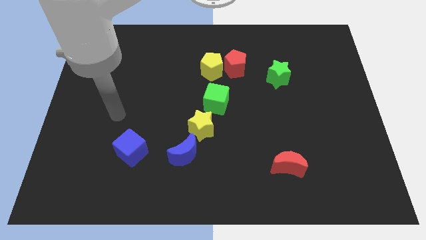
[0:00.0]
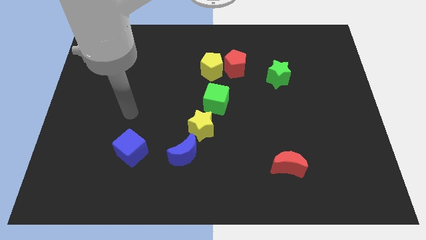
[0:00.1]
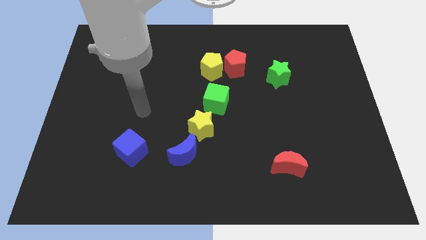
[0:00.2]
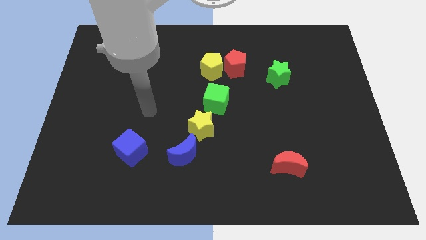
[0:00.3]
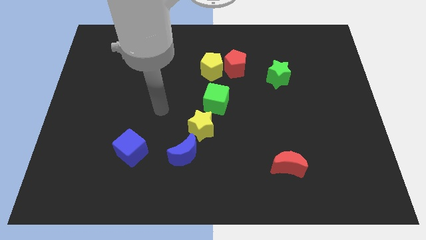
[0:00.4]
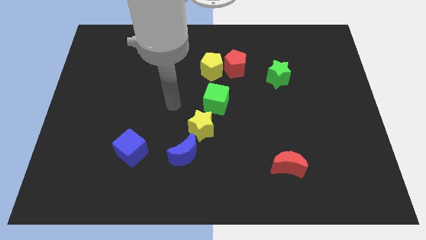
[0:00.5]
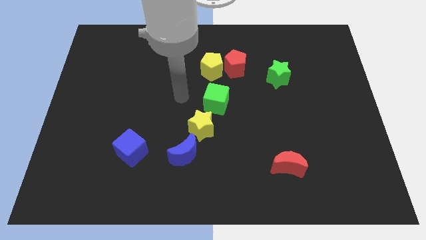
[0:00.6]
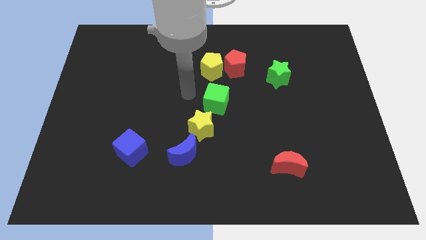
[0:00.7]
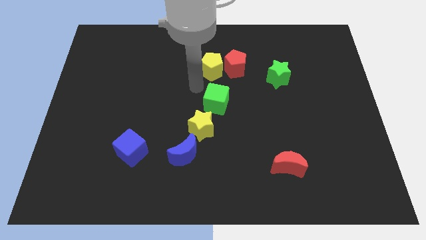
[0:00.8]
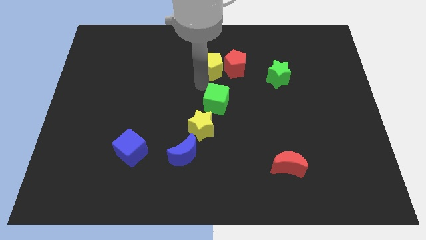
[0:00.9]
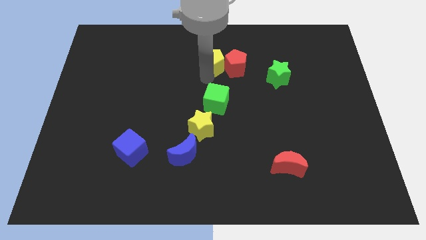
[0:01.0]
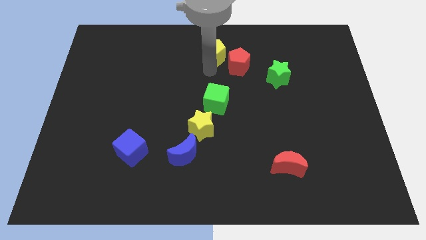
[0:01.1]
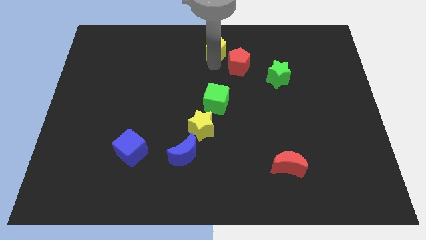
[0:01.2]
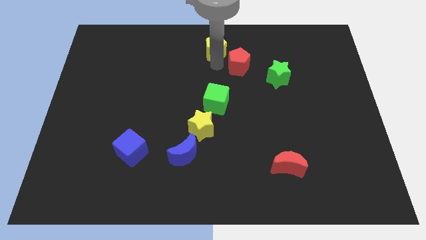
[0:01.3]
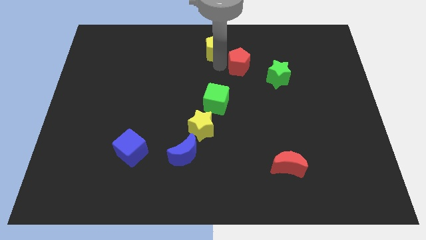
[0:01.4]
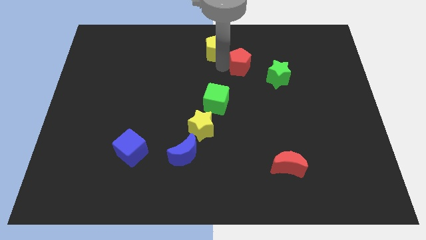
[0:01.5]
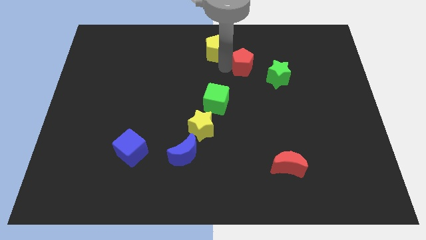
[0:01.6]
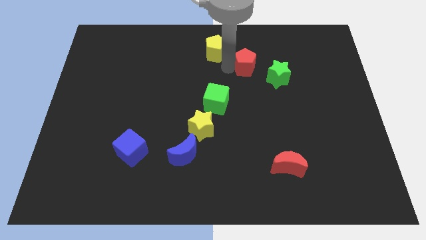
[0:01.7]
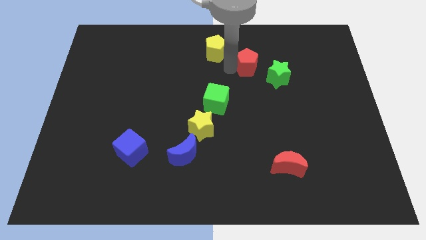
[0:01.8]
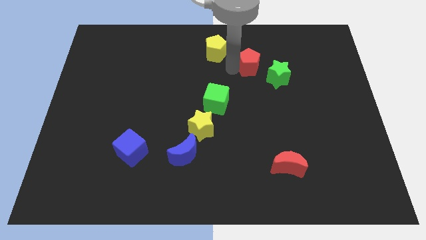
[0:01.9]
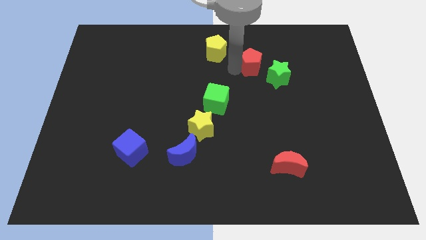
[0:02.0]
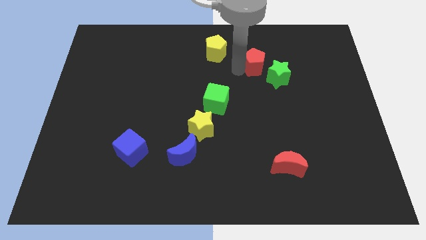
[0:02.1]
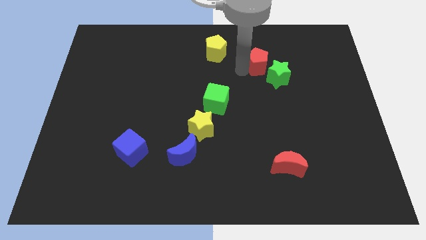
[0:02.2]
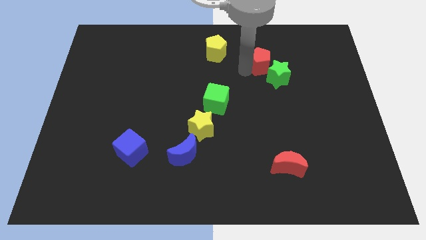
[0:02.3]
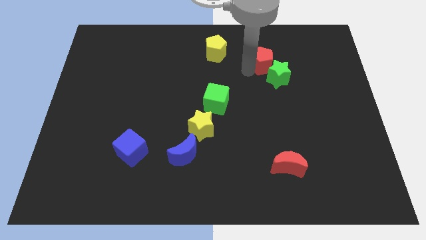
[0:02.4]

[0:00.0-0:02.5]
push the red pentagon a bit right

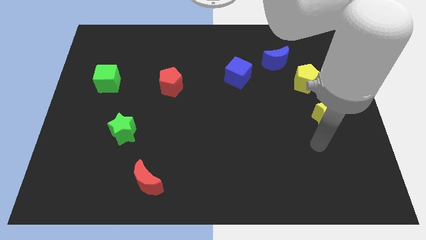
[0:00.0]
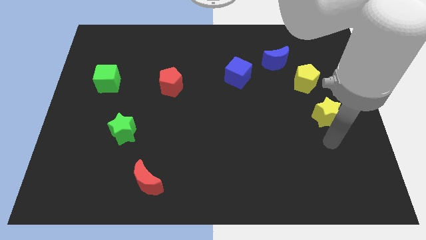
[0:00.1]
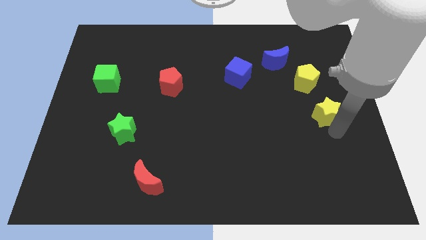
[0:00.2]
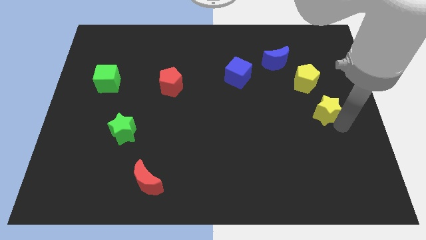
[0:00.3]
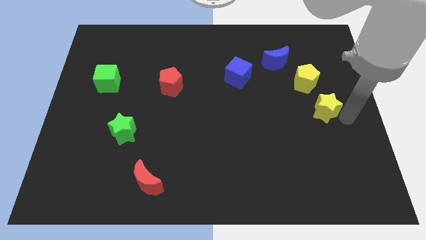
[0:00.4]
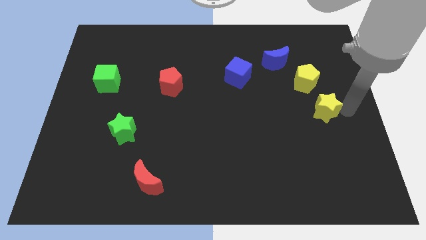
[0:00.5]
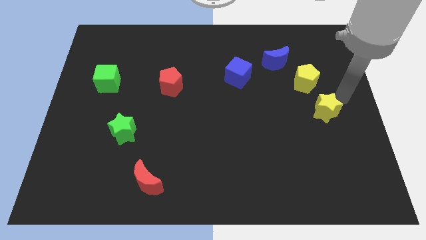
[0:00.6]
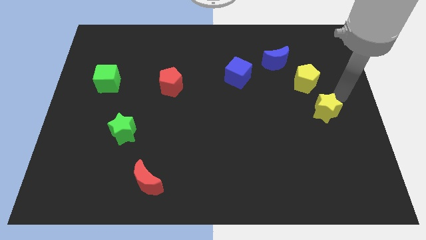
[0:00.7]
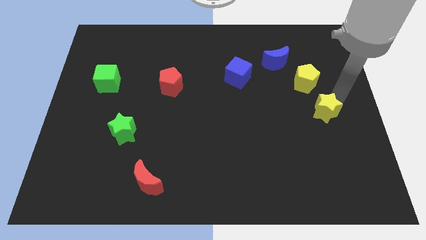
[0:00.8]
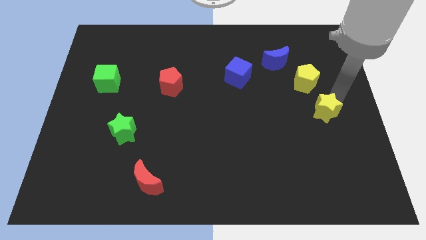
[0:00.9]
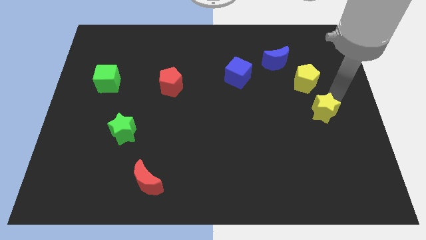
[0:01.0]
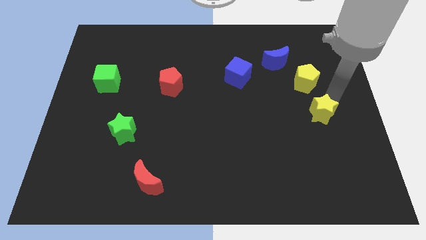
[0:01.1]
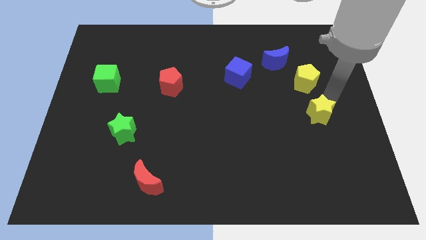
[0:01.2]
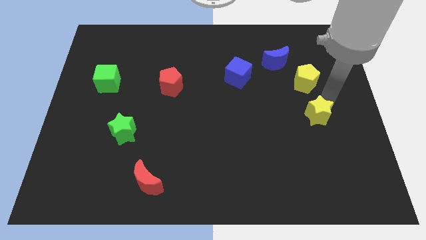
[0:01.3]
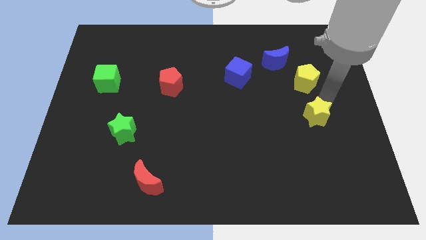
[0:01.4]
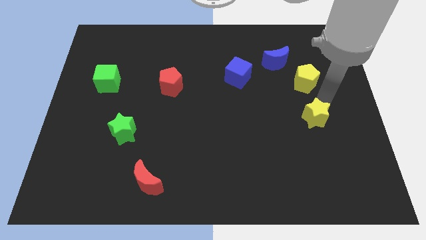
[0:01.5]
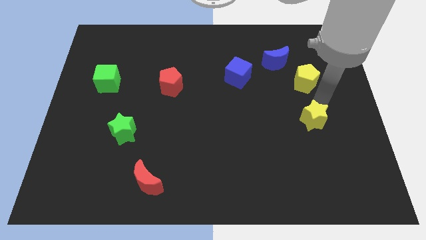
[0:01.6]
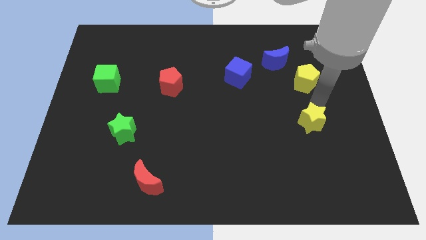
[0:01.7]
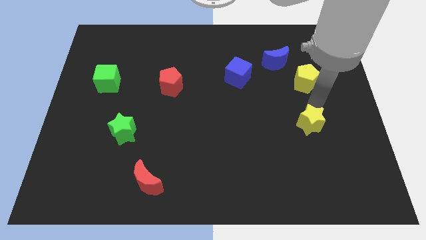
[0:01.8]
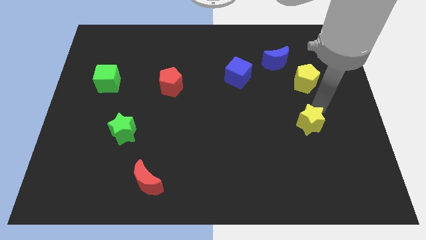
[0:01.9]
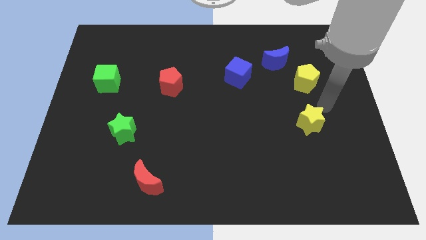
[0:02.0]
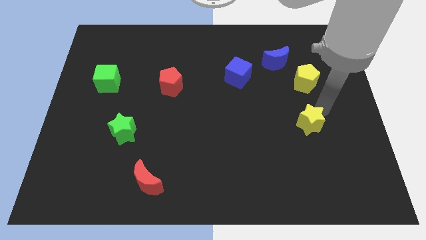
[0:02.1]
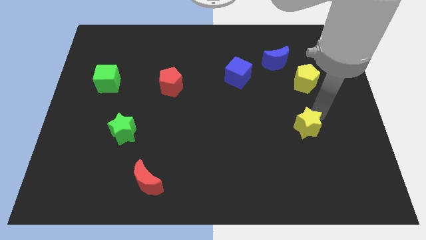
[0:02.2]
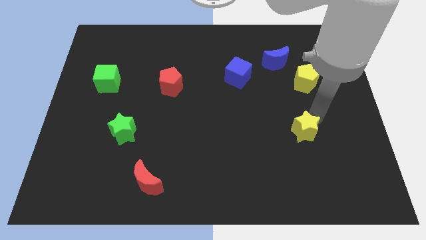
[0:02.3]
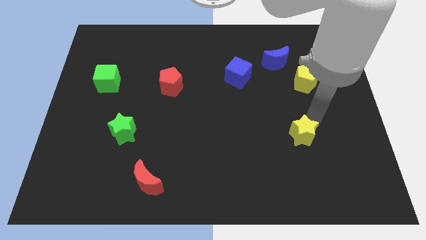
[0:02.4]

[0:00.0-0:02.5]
slightly slide the yellow star down and to the left

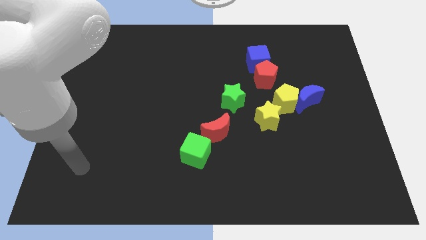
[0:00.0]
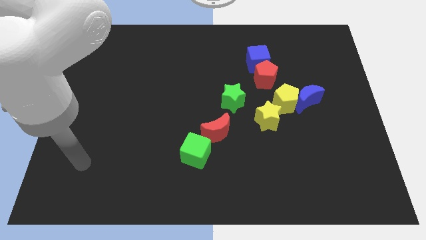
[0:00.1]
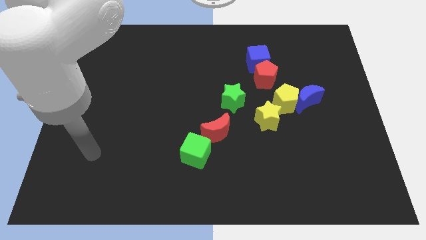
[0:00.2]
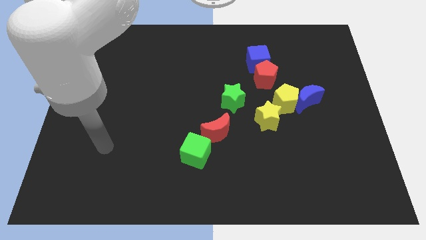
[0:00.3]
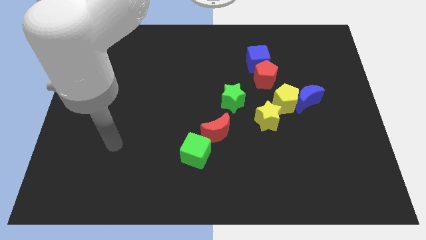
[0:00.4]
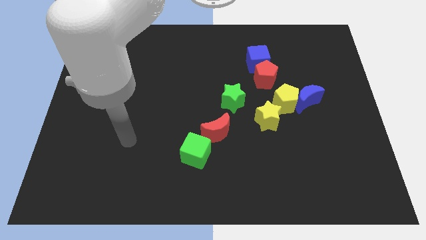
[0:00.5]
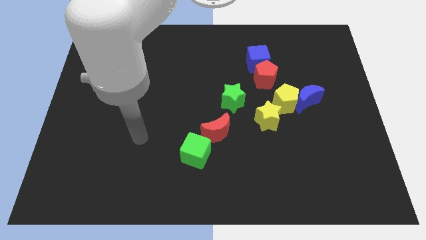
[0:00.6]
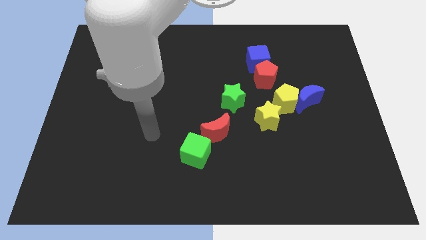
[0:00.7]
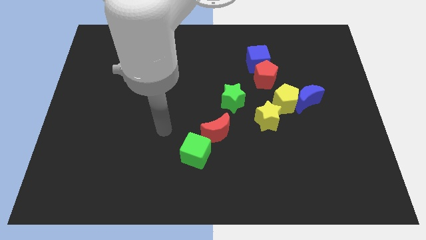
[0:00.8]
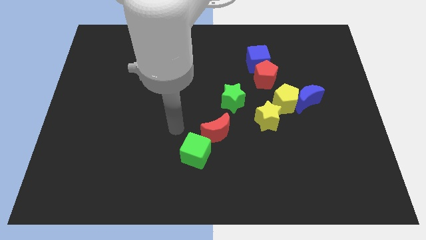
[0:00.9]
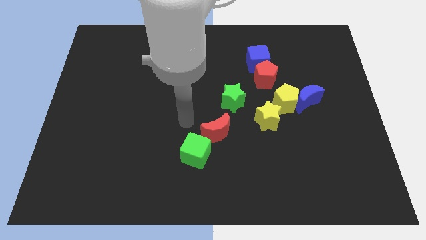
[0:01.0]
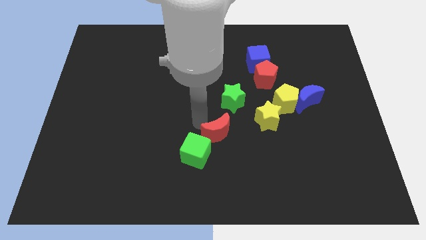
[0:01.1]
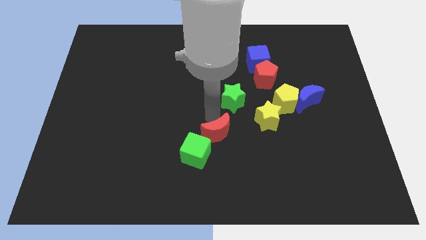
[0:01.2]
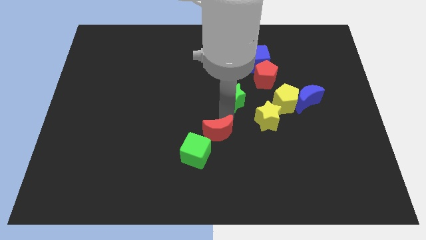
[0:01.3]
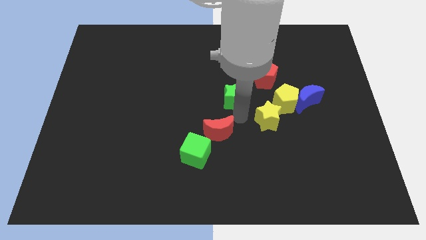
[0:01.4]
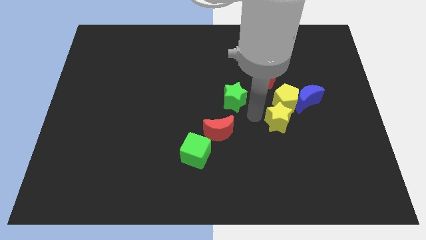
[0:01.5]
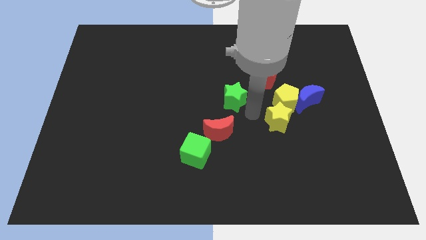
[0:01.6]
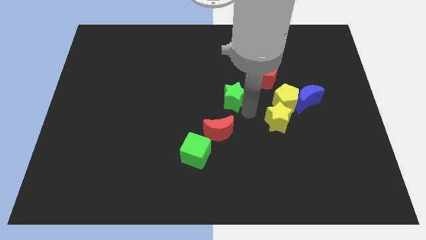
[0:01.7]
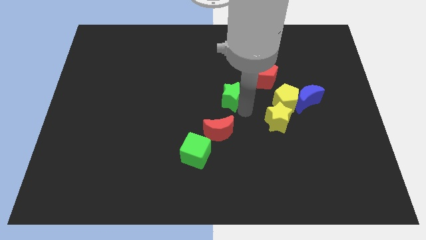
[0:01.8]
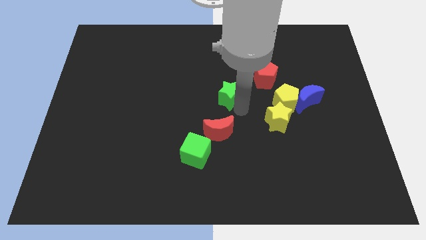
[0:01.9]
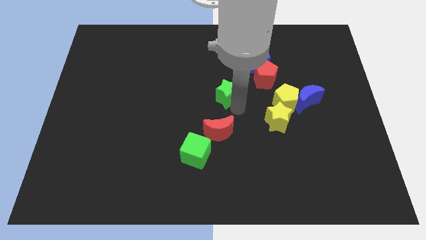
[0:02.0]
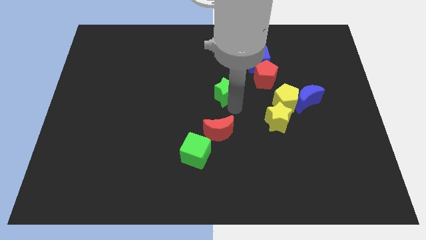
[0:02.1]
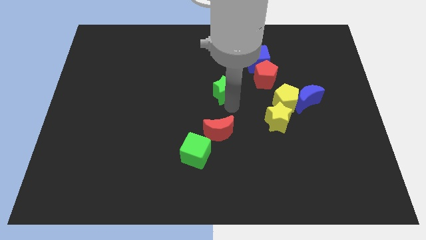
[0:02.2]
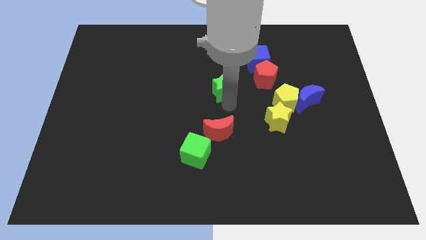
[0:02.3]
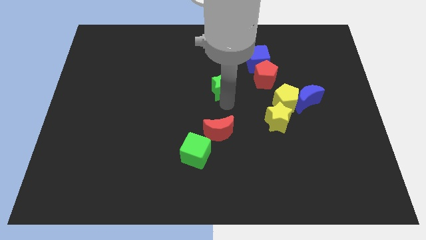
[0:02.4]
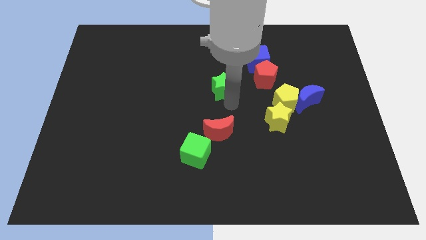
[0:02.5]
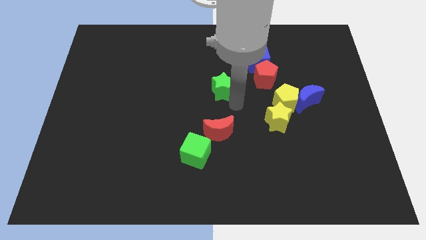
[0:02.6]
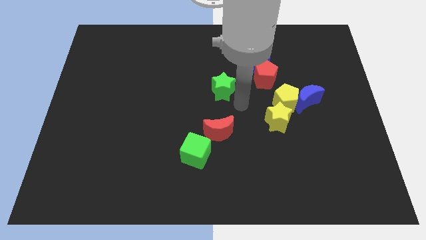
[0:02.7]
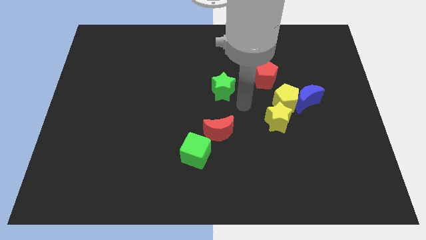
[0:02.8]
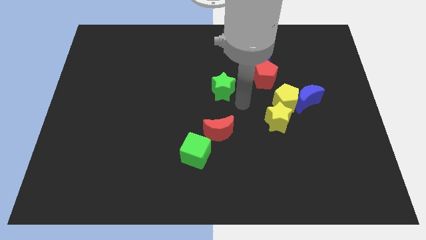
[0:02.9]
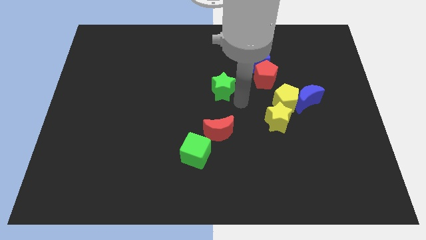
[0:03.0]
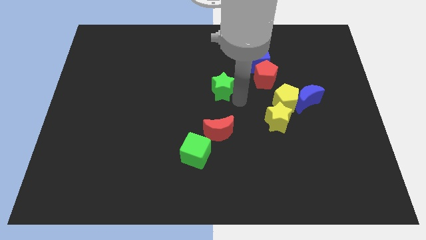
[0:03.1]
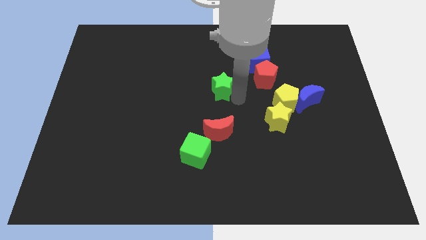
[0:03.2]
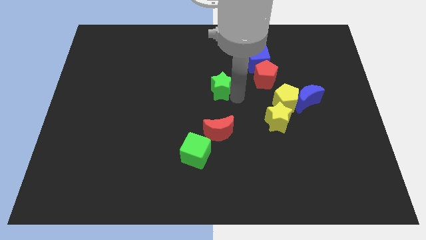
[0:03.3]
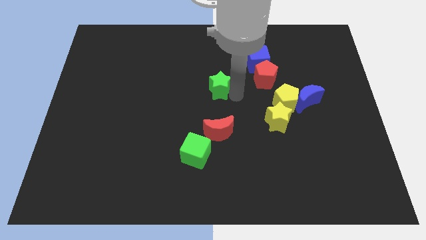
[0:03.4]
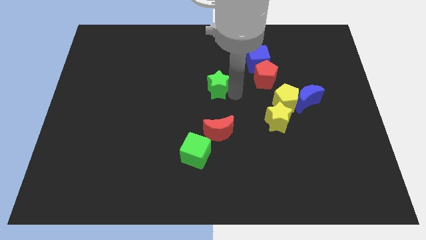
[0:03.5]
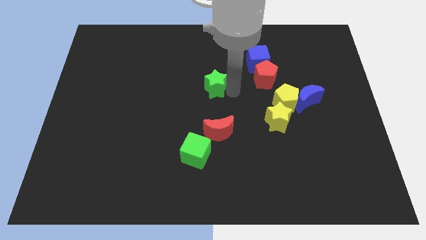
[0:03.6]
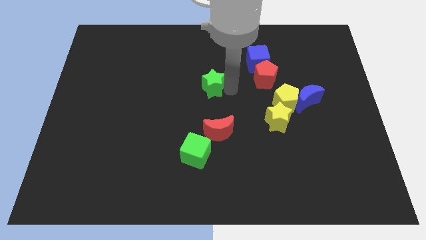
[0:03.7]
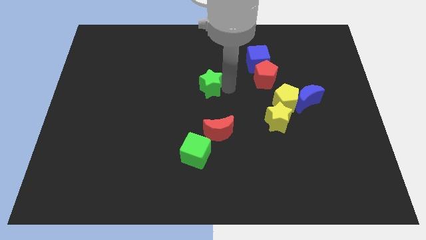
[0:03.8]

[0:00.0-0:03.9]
slide the green star somewhat up and to the left diagonally
